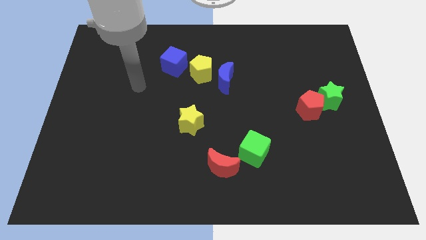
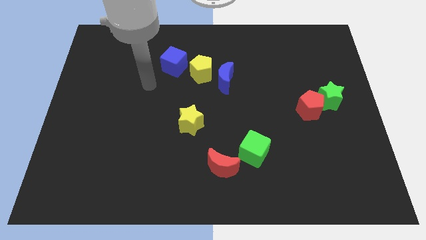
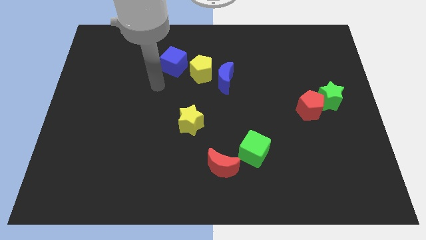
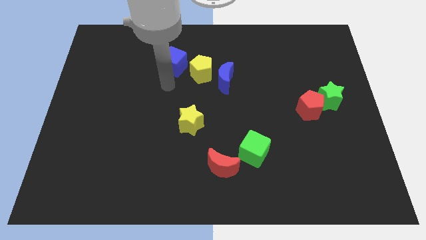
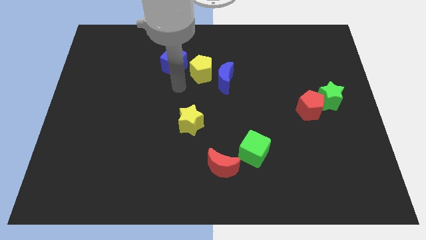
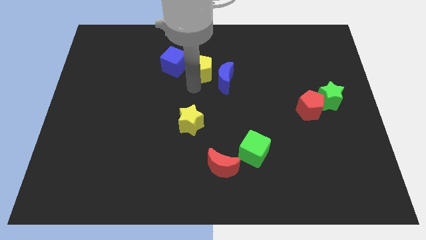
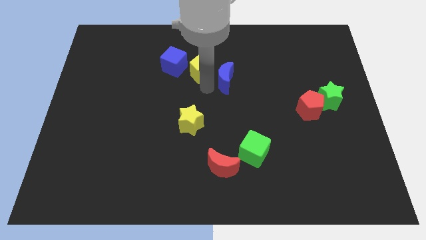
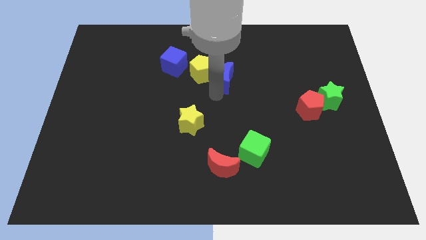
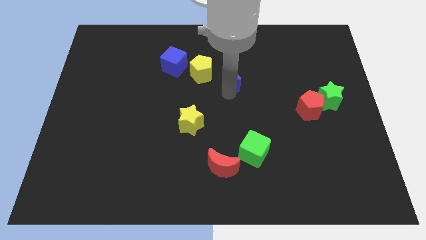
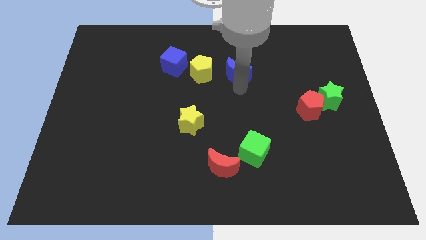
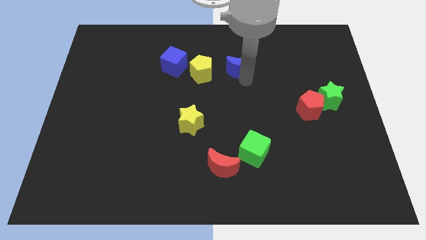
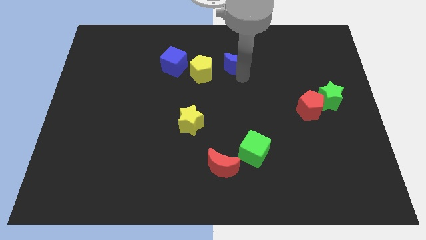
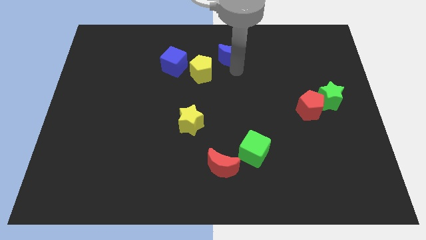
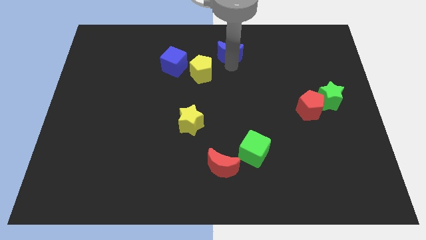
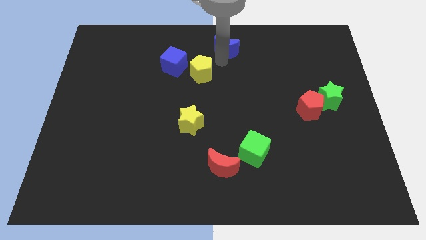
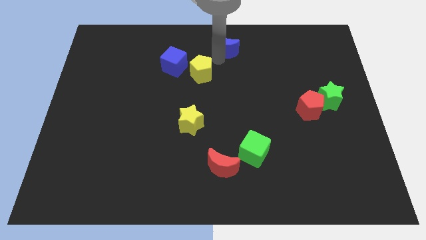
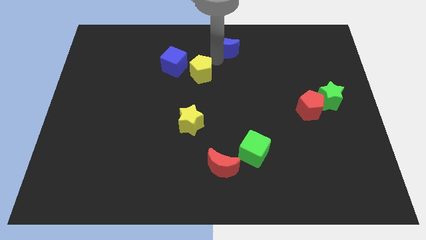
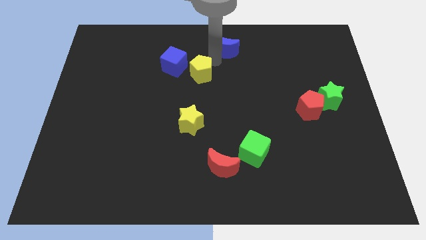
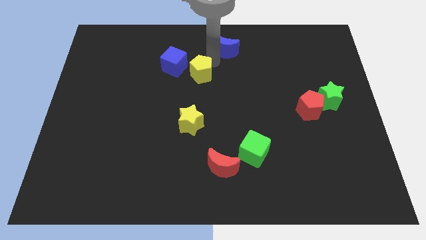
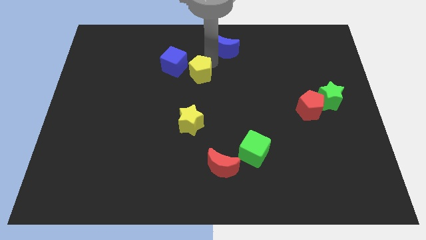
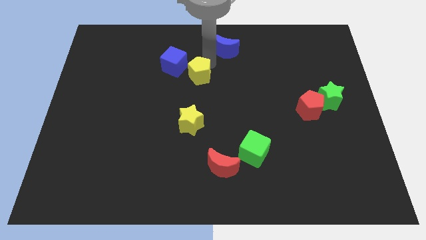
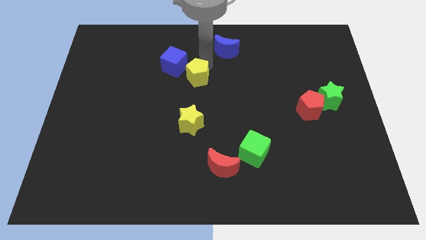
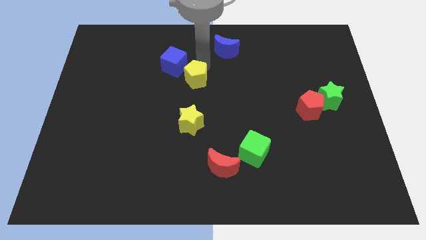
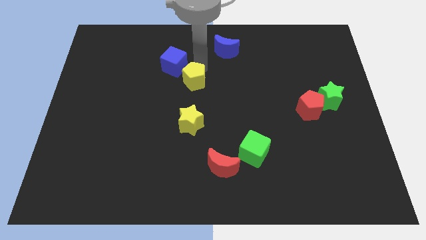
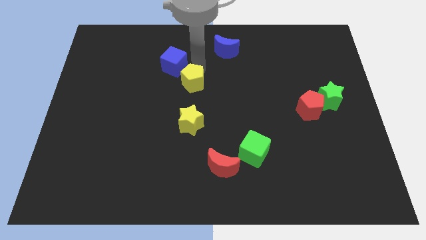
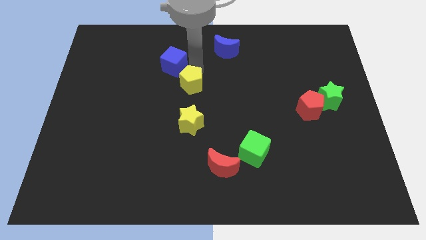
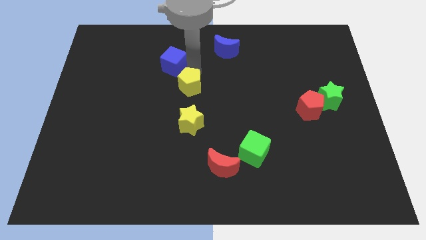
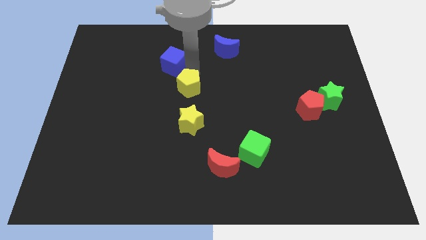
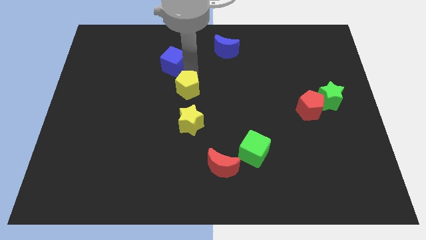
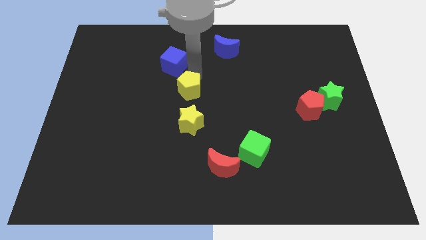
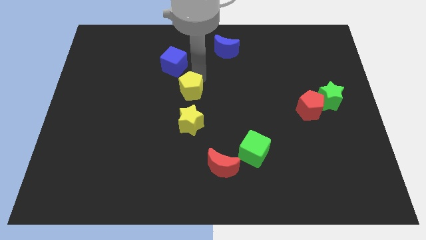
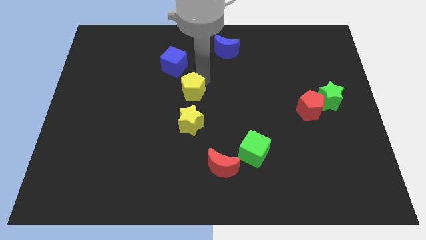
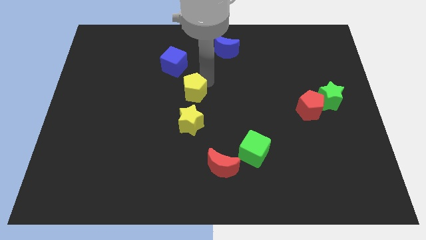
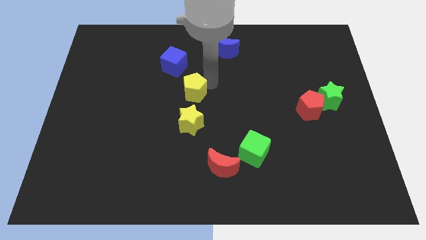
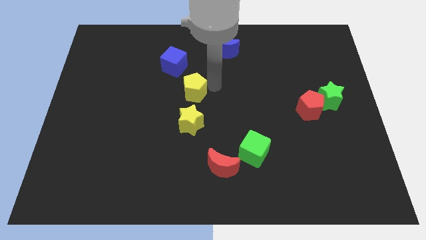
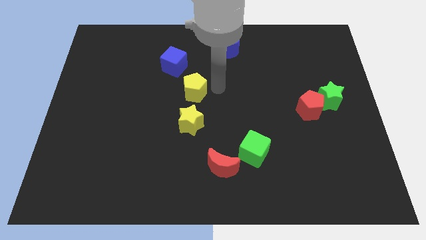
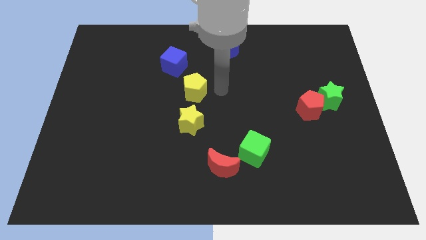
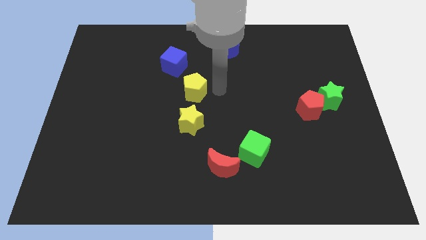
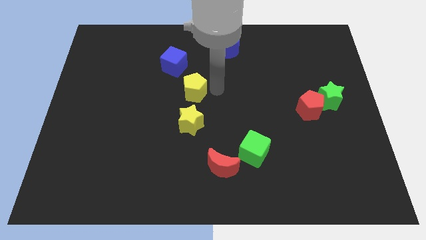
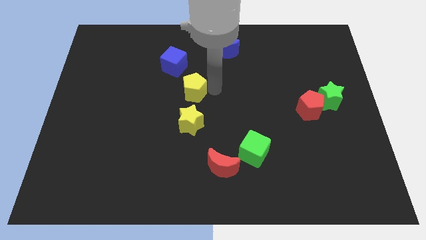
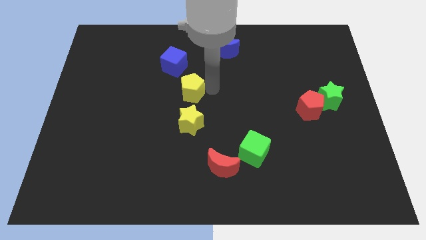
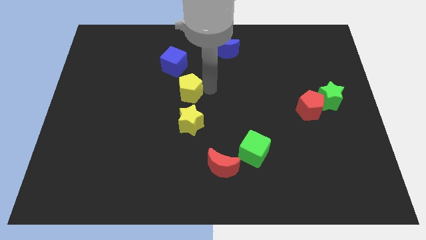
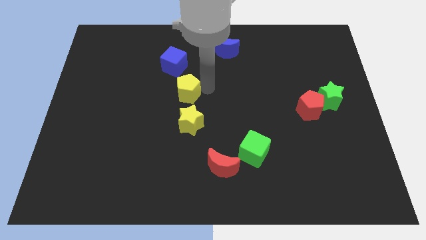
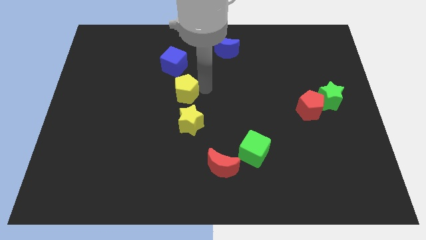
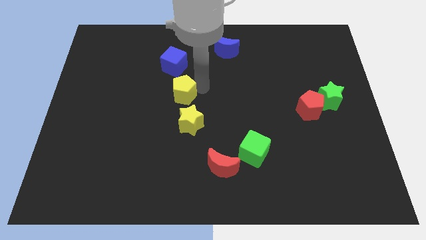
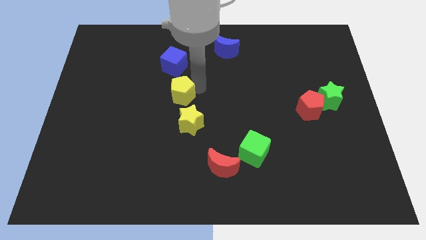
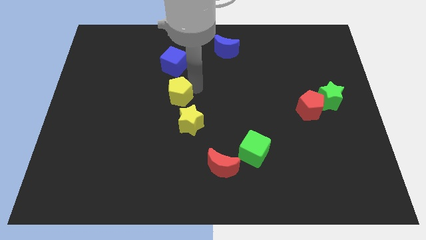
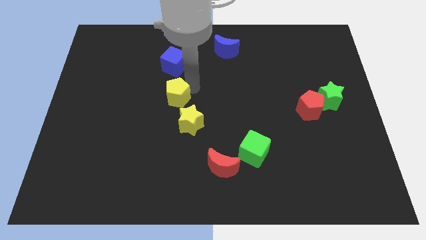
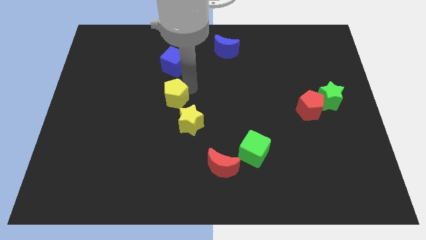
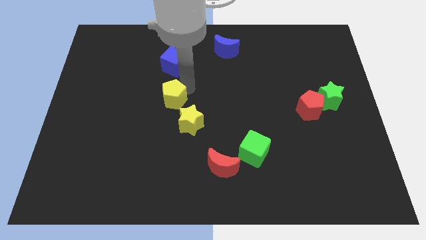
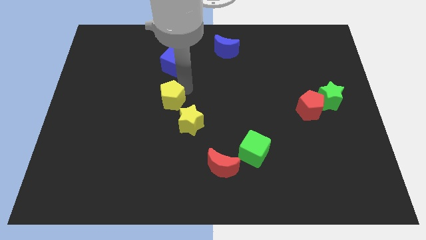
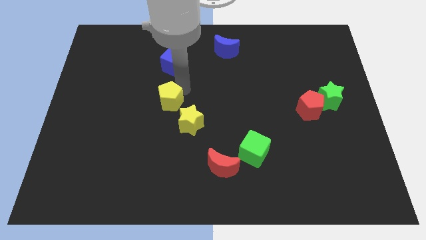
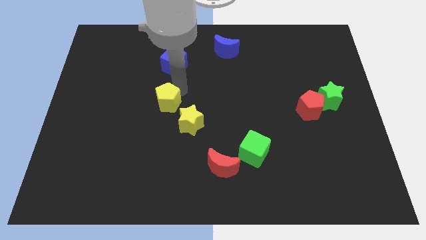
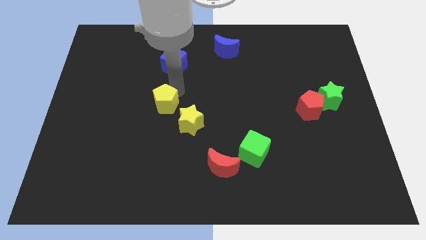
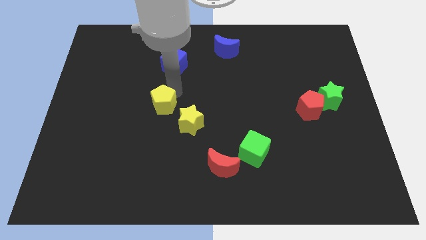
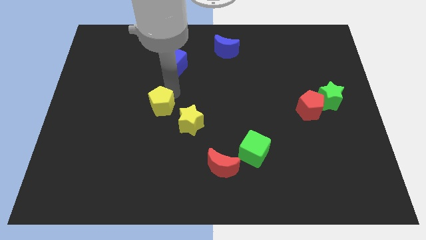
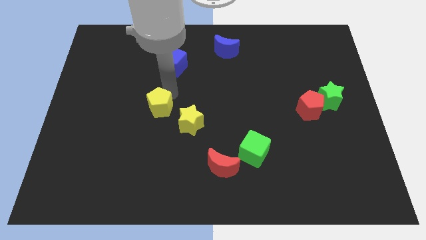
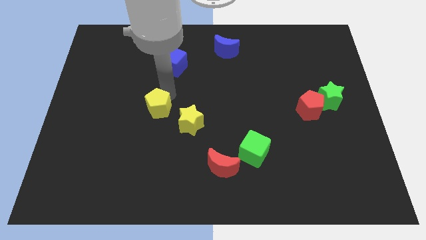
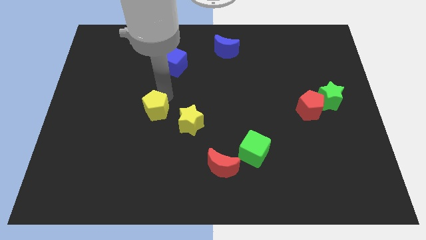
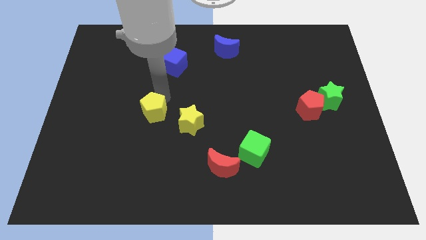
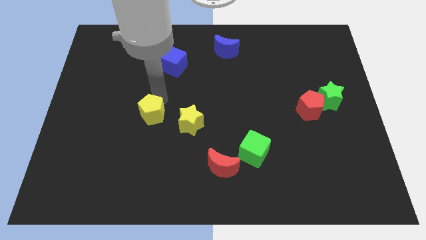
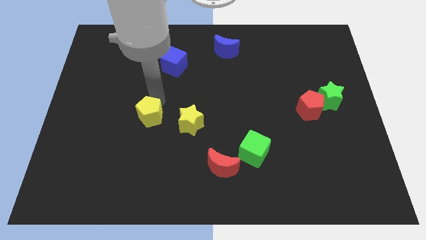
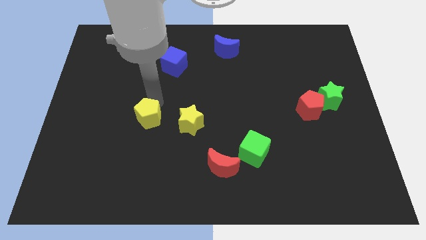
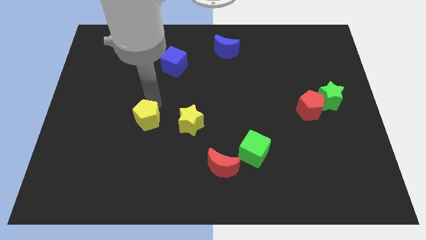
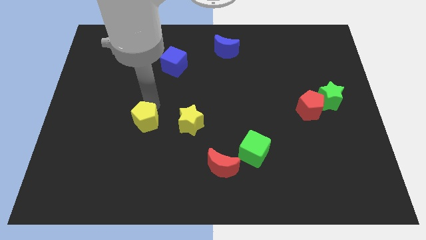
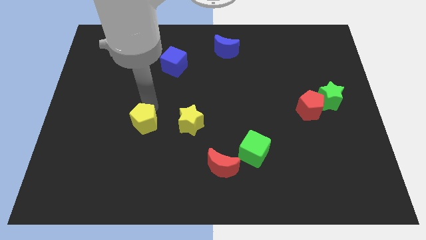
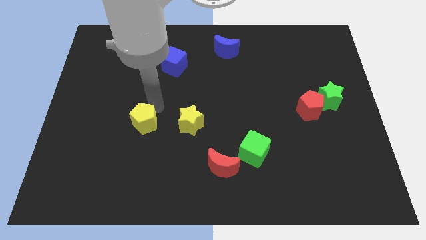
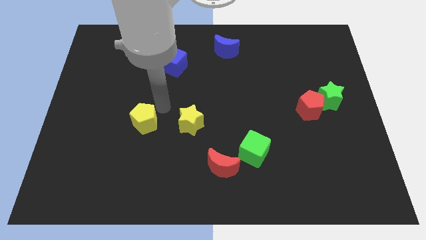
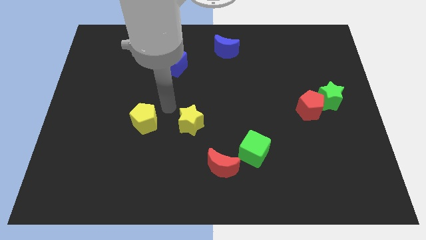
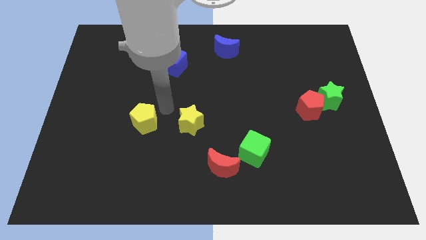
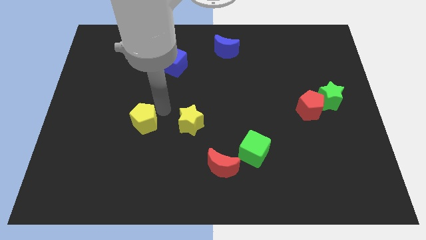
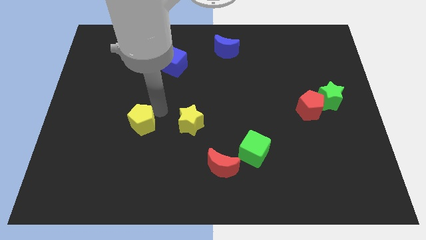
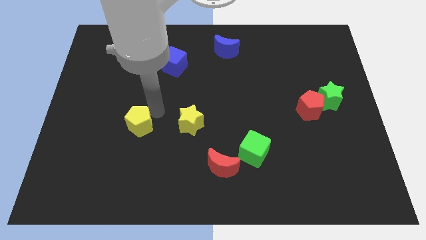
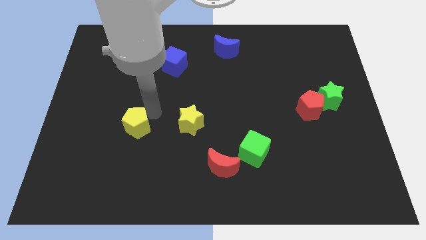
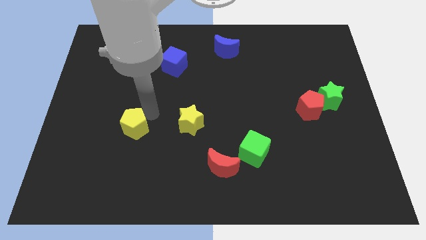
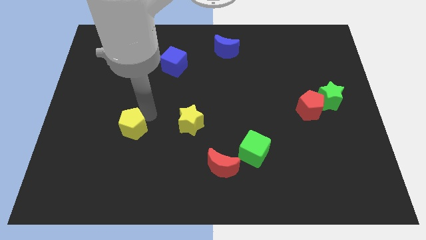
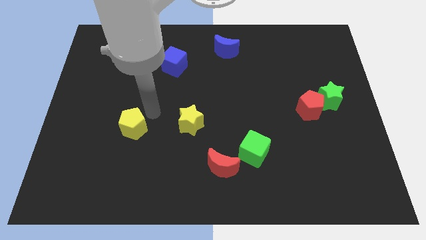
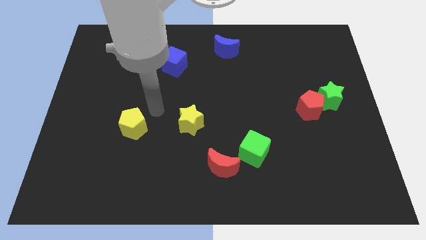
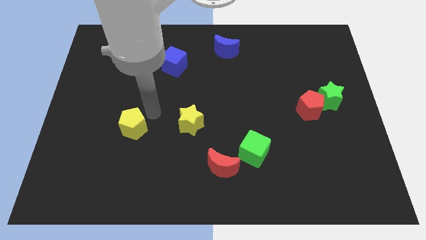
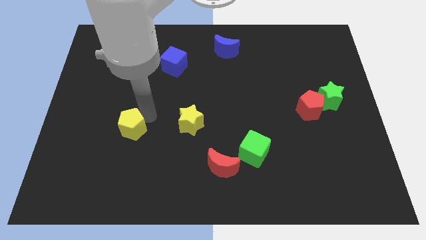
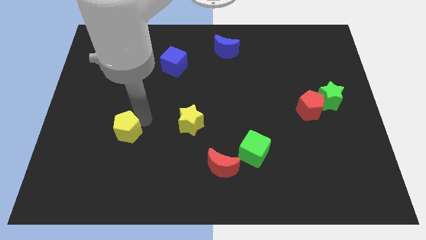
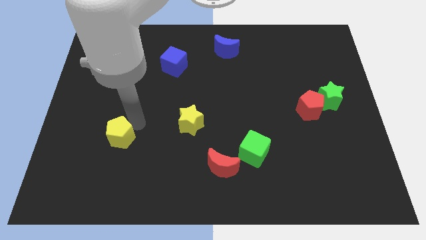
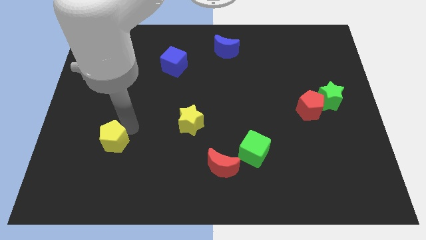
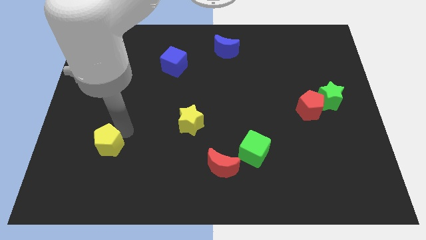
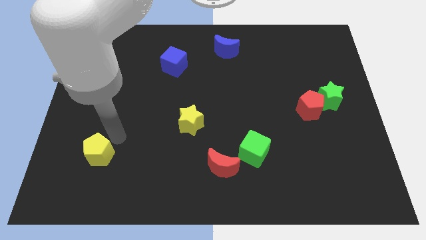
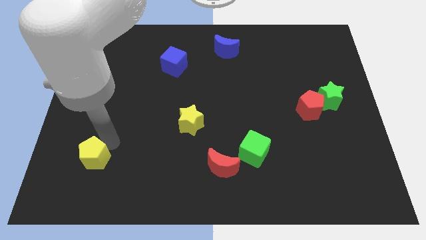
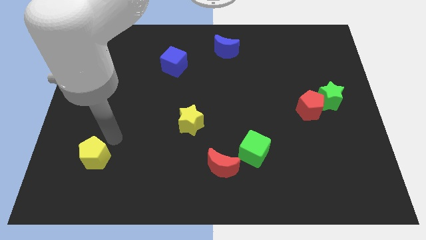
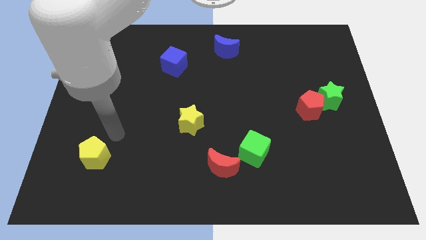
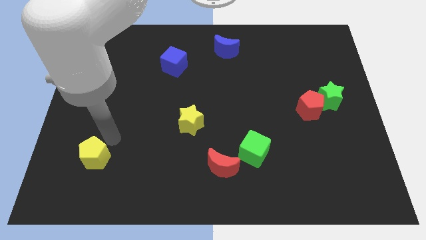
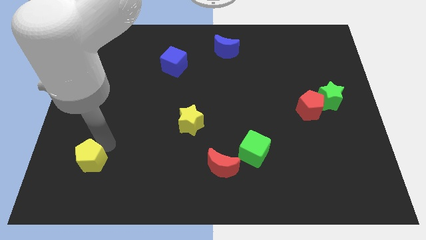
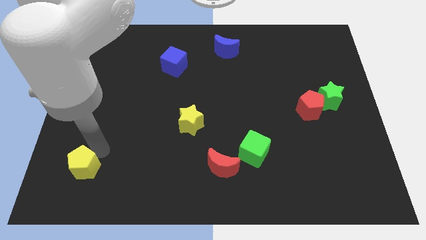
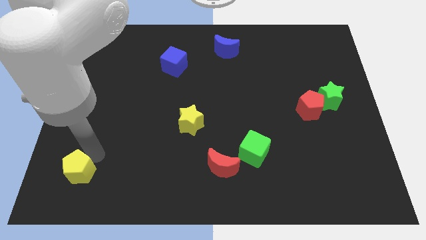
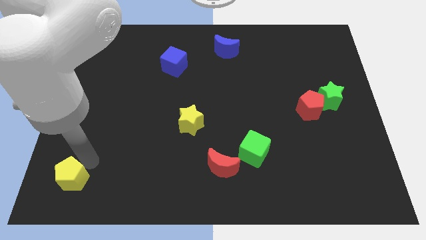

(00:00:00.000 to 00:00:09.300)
push the yellow pentagon to the bottom left
